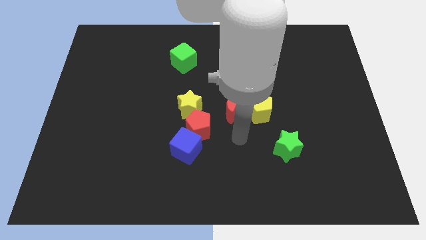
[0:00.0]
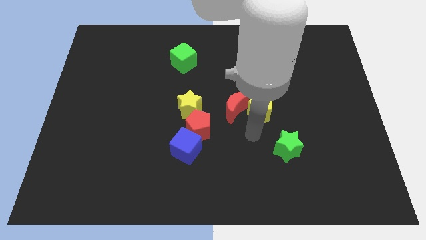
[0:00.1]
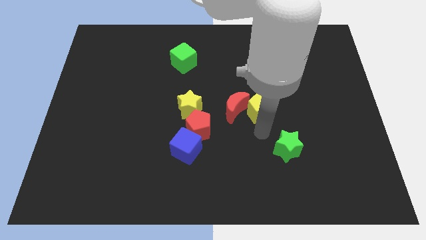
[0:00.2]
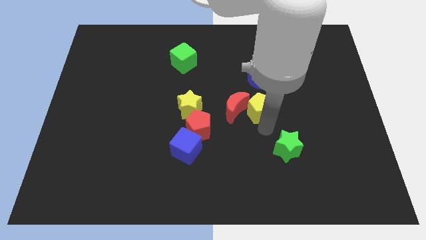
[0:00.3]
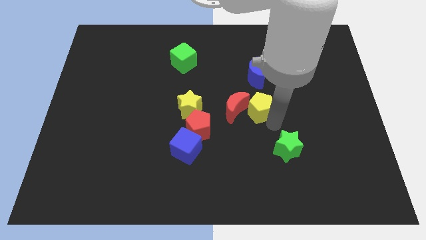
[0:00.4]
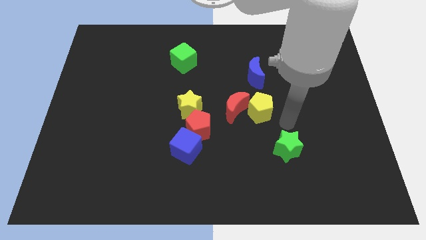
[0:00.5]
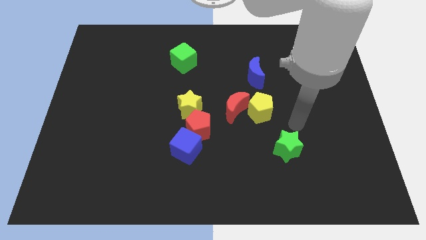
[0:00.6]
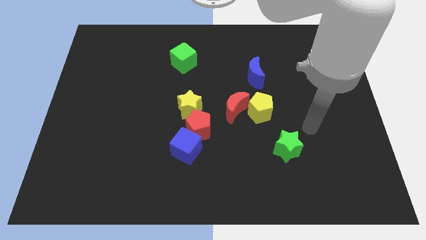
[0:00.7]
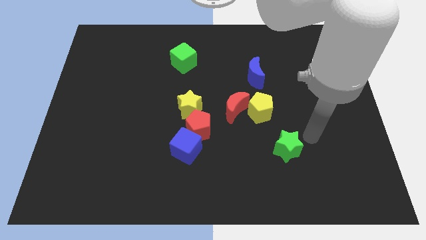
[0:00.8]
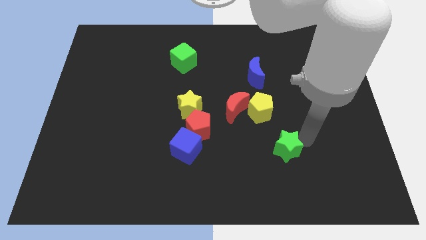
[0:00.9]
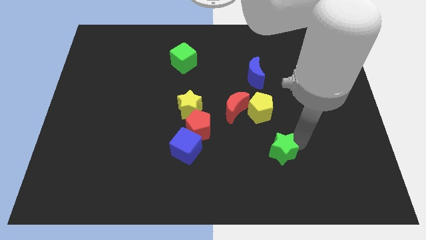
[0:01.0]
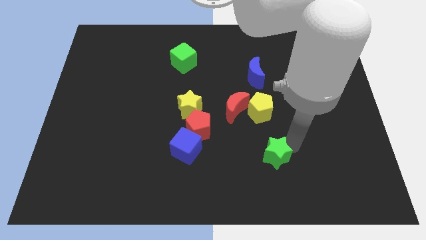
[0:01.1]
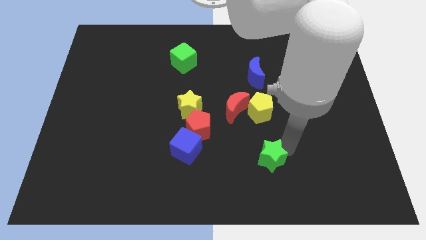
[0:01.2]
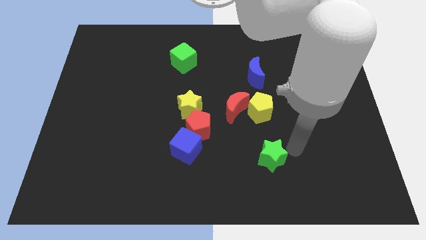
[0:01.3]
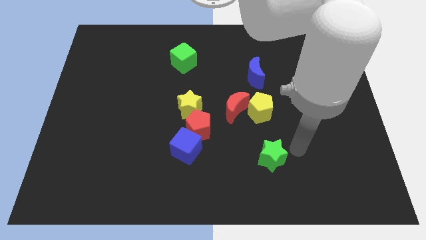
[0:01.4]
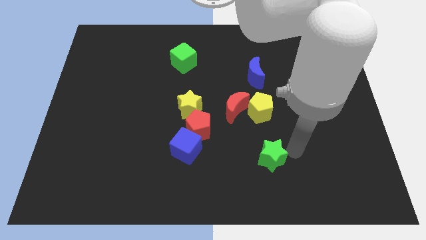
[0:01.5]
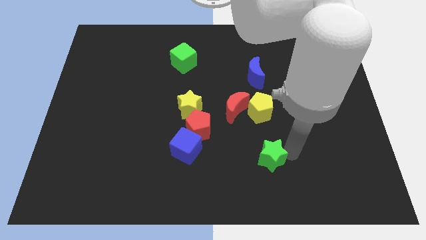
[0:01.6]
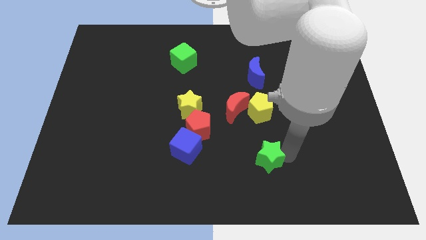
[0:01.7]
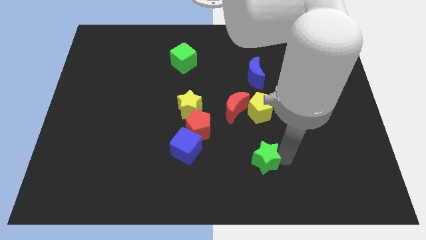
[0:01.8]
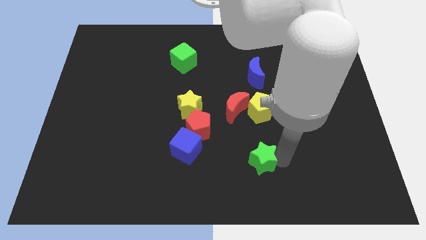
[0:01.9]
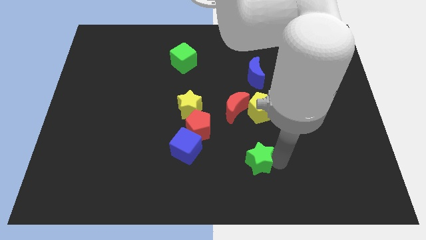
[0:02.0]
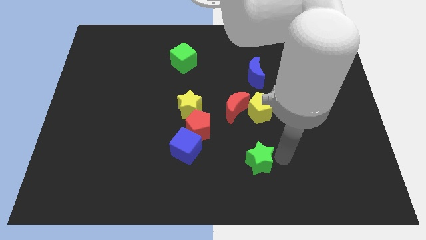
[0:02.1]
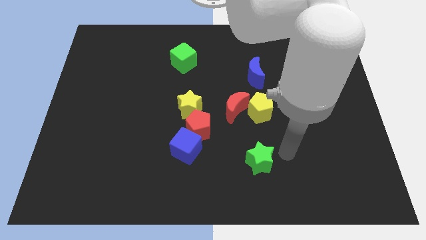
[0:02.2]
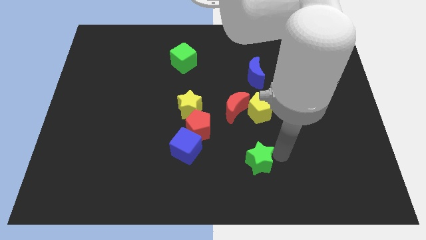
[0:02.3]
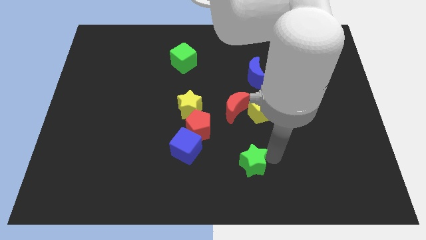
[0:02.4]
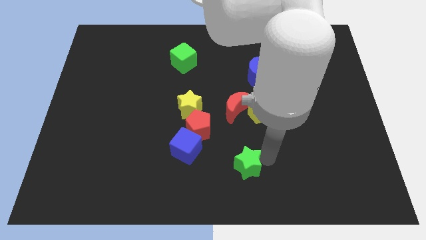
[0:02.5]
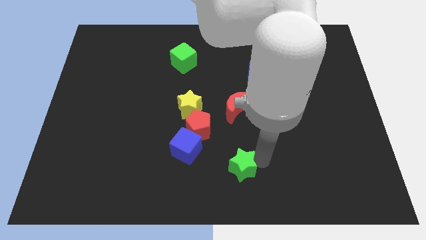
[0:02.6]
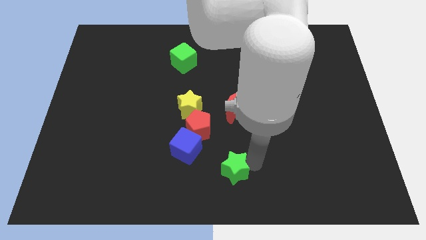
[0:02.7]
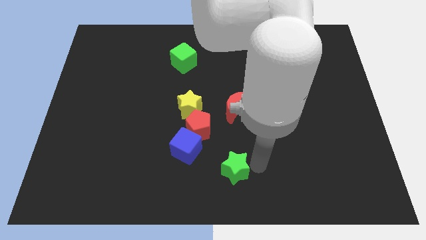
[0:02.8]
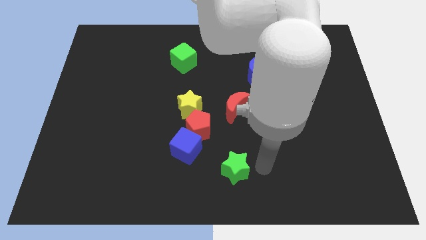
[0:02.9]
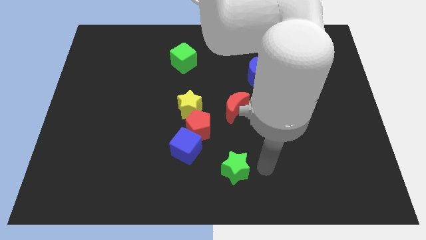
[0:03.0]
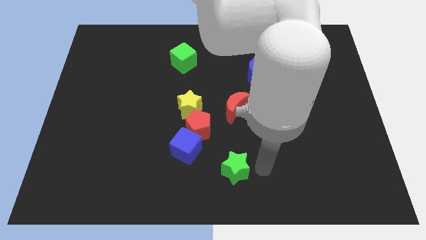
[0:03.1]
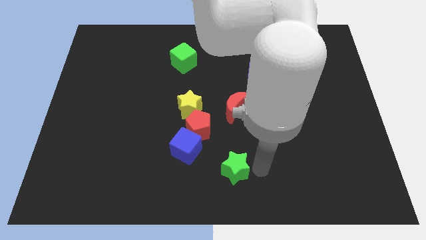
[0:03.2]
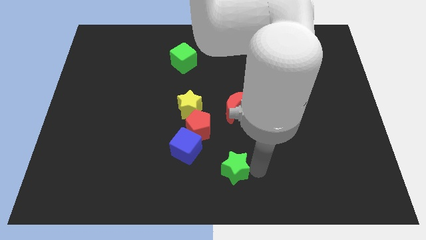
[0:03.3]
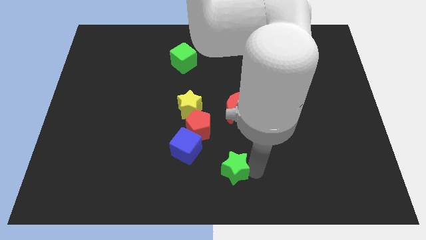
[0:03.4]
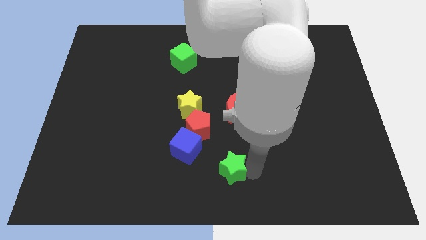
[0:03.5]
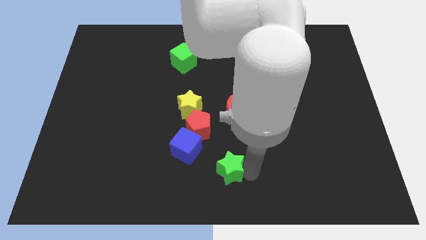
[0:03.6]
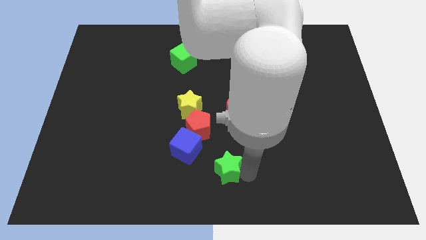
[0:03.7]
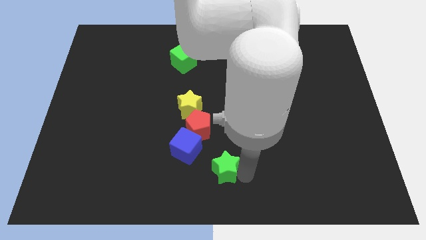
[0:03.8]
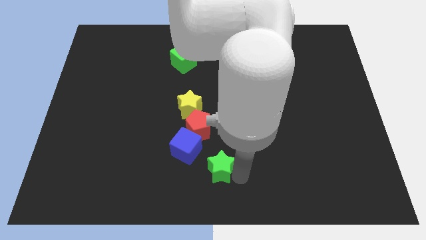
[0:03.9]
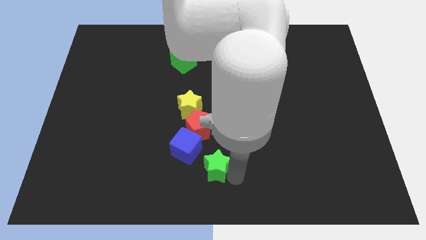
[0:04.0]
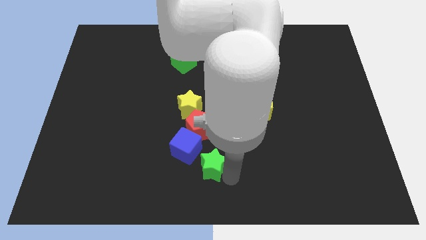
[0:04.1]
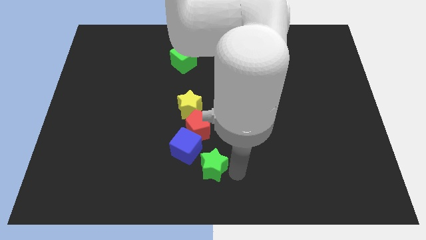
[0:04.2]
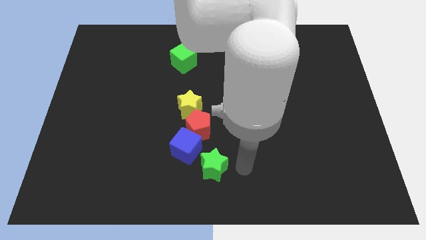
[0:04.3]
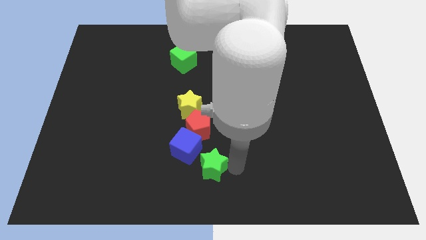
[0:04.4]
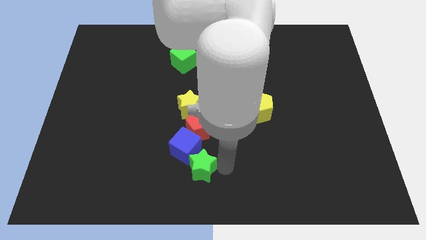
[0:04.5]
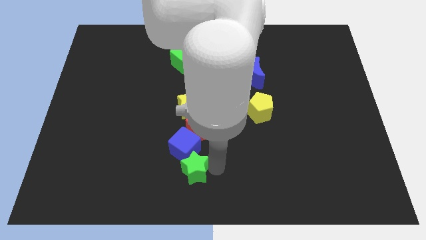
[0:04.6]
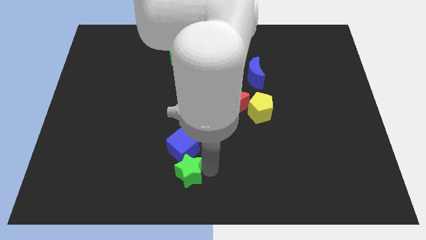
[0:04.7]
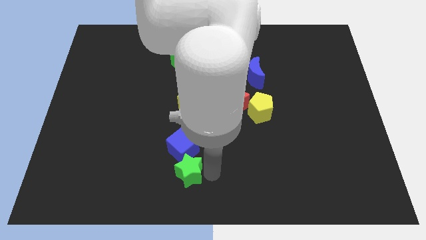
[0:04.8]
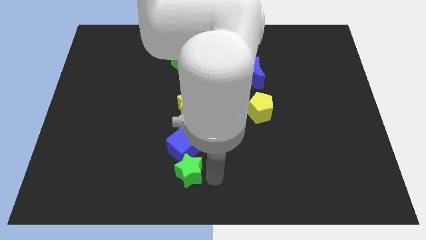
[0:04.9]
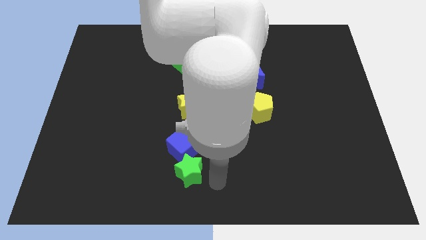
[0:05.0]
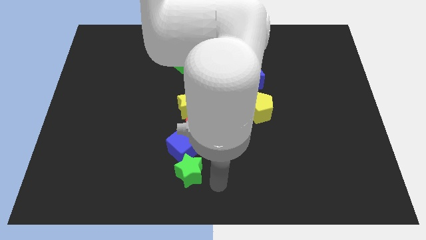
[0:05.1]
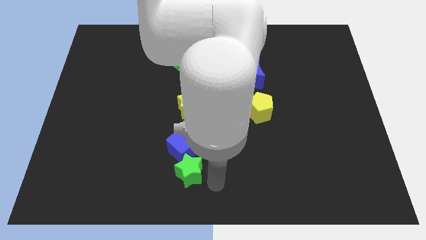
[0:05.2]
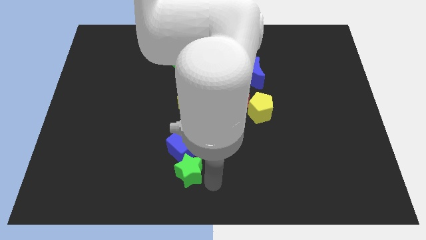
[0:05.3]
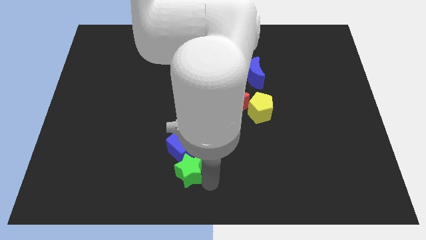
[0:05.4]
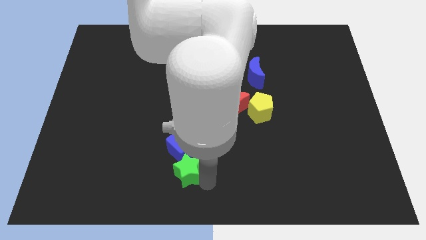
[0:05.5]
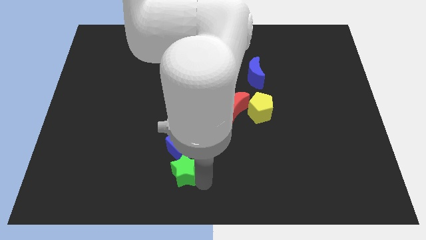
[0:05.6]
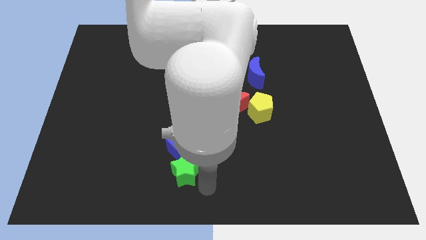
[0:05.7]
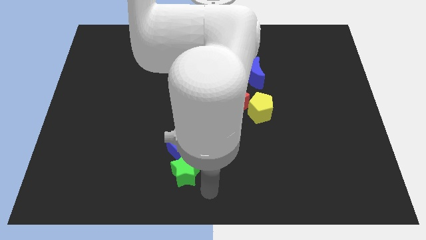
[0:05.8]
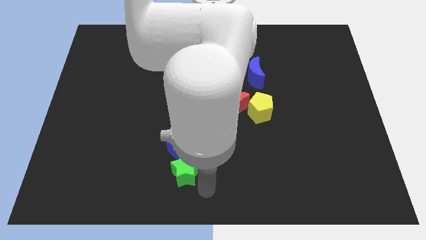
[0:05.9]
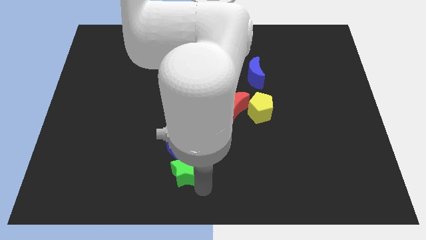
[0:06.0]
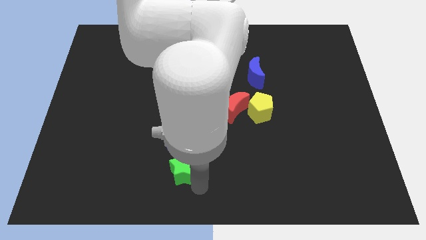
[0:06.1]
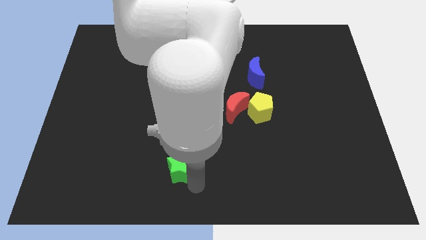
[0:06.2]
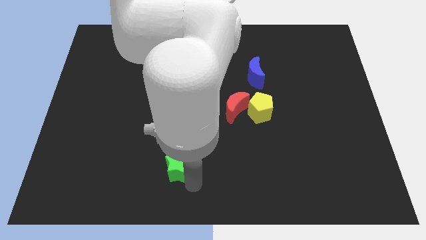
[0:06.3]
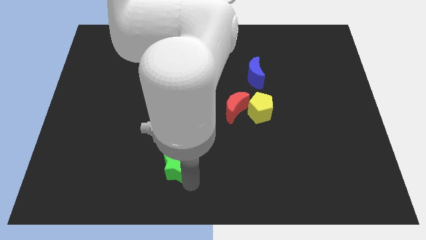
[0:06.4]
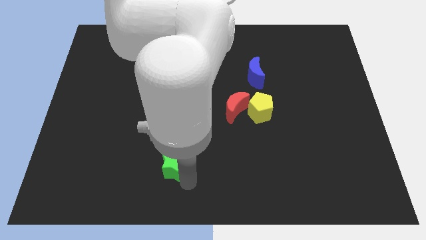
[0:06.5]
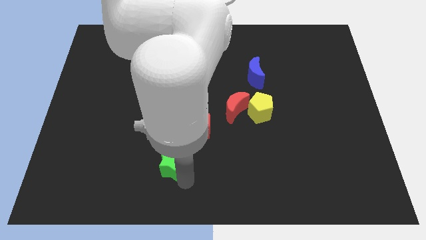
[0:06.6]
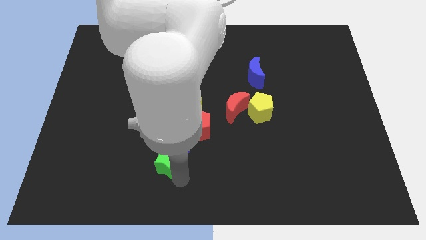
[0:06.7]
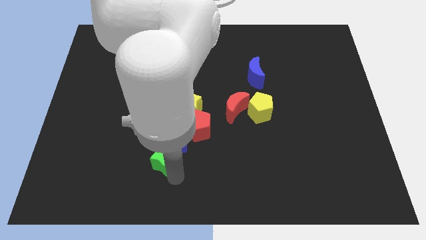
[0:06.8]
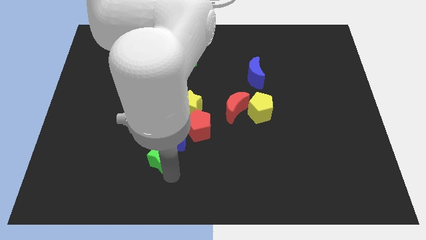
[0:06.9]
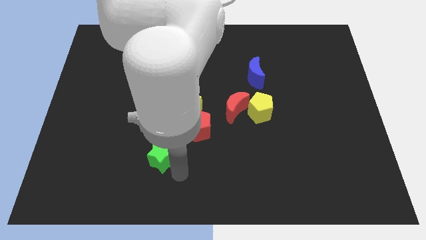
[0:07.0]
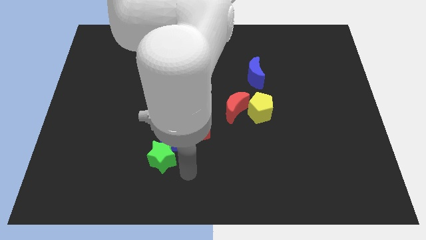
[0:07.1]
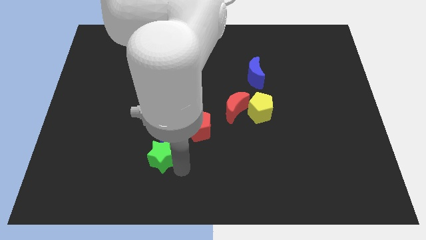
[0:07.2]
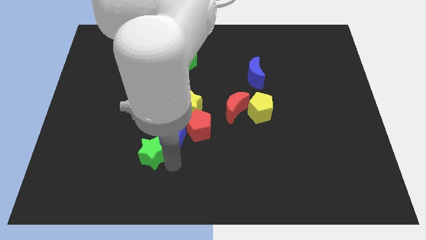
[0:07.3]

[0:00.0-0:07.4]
push the green star to the left of the blue cube
